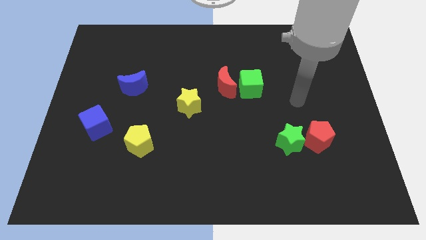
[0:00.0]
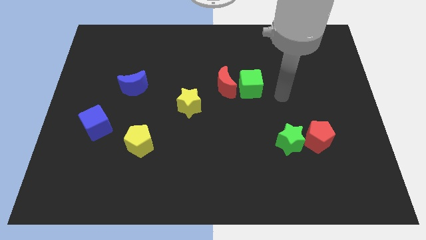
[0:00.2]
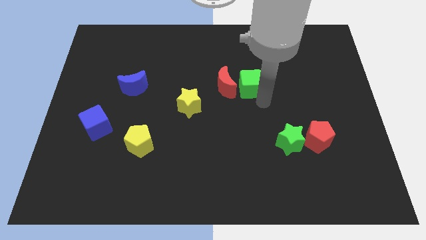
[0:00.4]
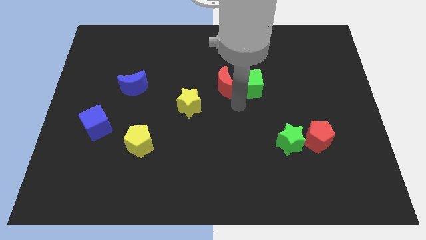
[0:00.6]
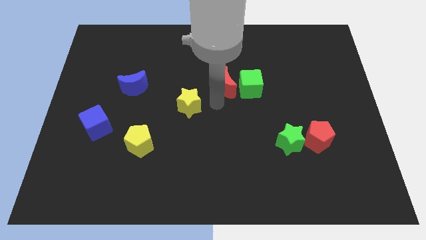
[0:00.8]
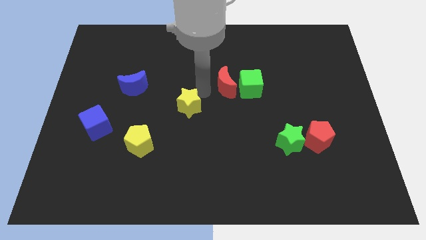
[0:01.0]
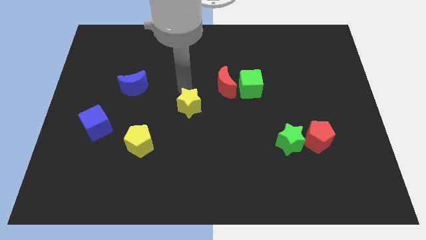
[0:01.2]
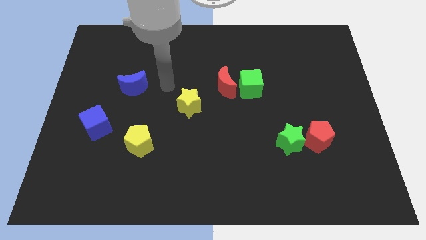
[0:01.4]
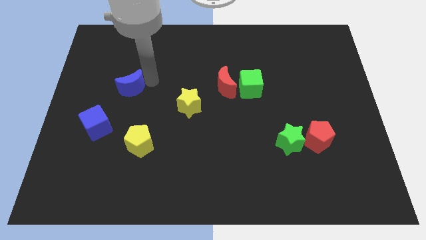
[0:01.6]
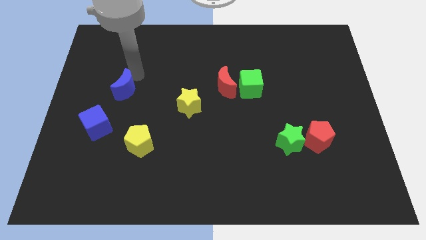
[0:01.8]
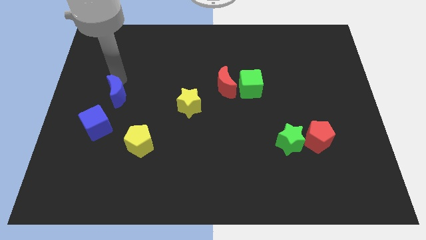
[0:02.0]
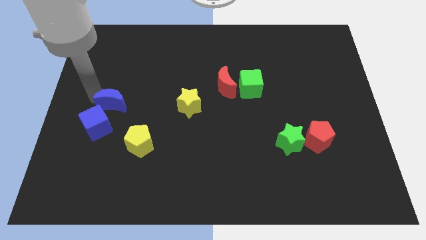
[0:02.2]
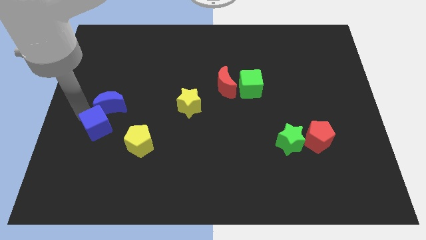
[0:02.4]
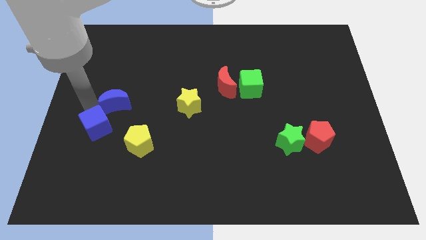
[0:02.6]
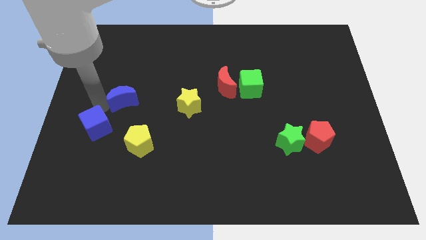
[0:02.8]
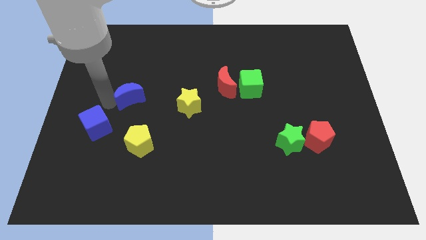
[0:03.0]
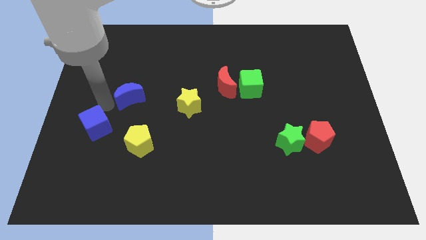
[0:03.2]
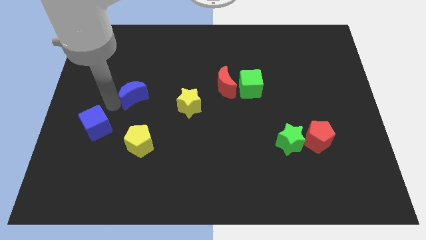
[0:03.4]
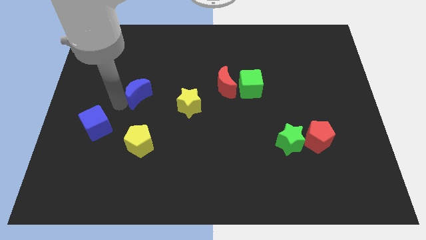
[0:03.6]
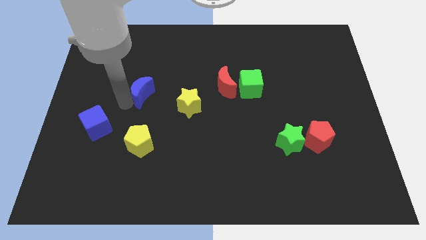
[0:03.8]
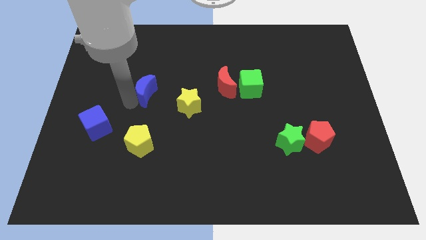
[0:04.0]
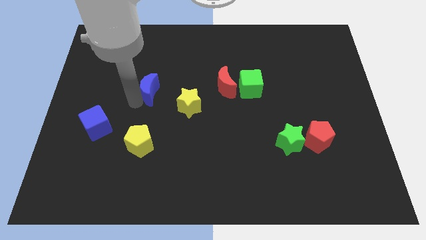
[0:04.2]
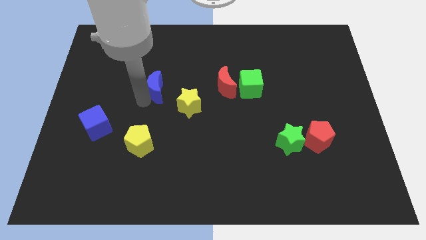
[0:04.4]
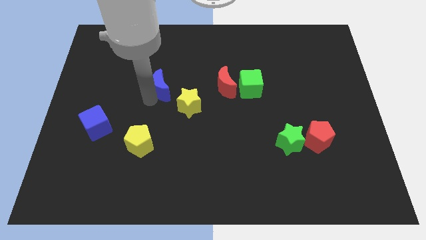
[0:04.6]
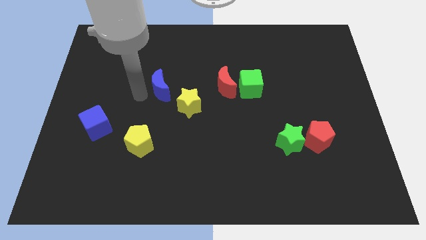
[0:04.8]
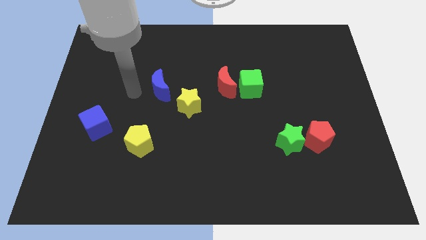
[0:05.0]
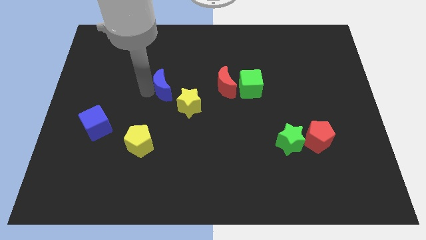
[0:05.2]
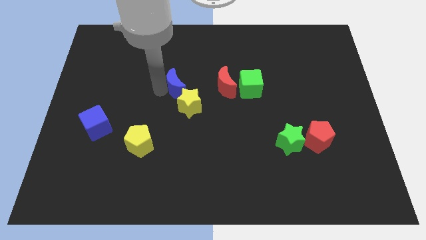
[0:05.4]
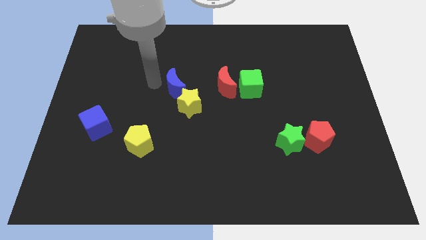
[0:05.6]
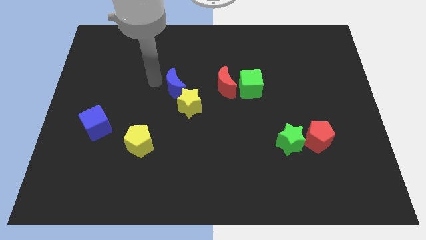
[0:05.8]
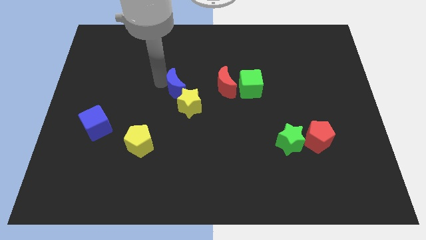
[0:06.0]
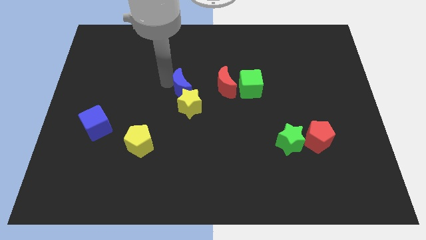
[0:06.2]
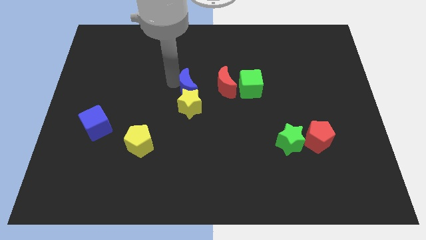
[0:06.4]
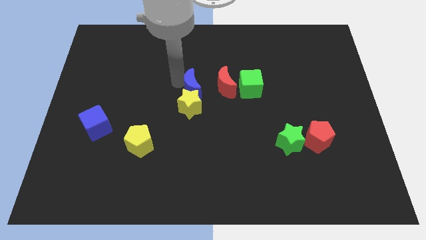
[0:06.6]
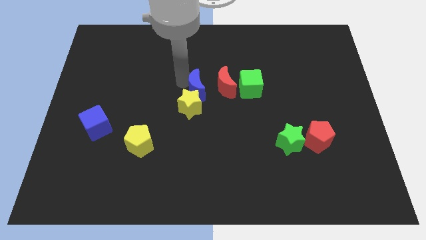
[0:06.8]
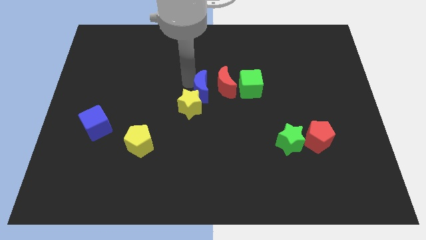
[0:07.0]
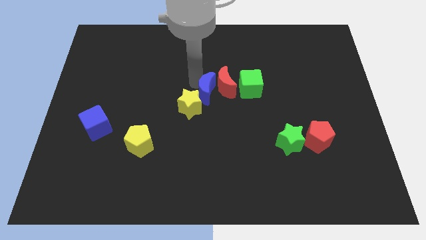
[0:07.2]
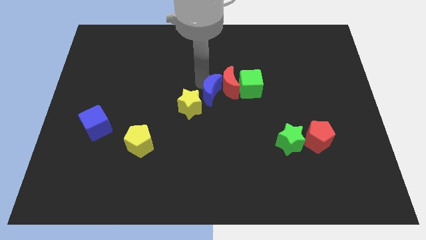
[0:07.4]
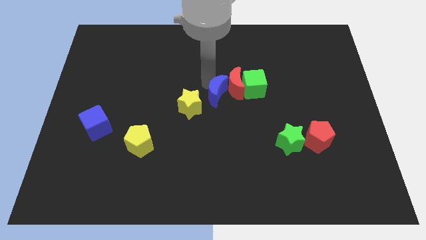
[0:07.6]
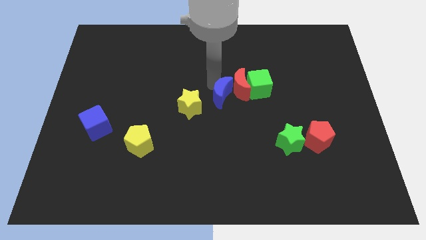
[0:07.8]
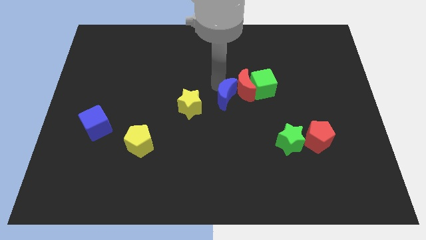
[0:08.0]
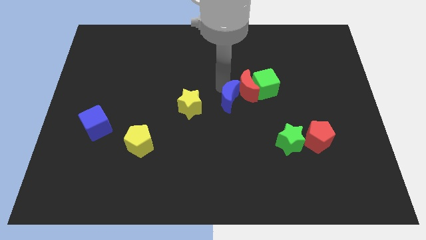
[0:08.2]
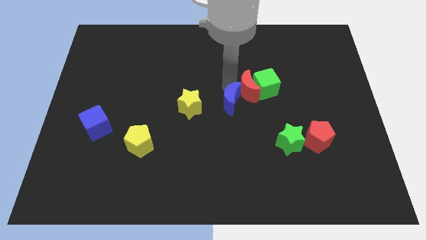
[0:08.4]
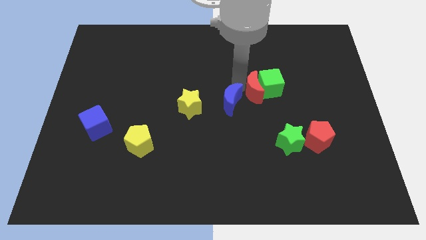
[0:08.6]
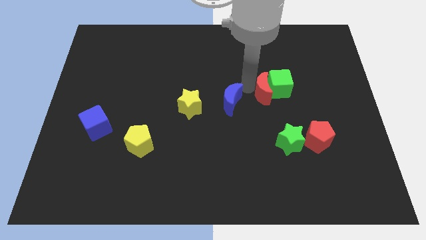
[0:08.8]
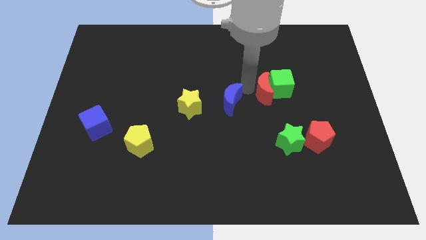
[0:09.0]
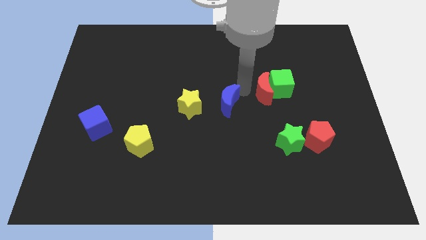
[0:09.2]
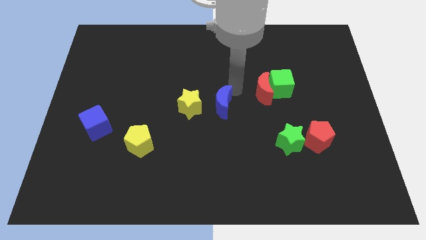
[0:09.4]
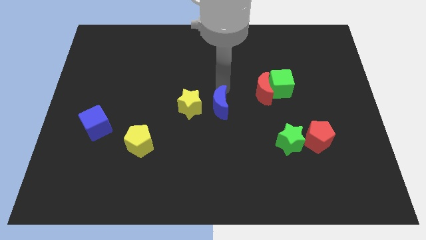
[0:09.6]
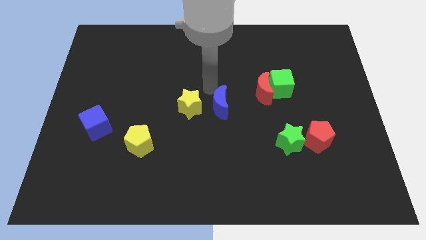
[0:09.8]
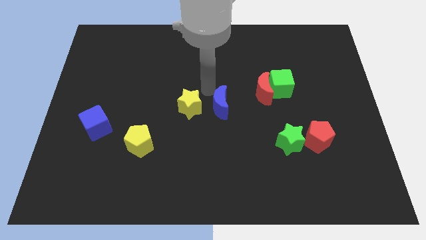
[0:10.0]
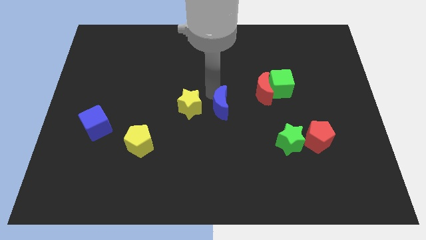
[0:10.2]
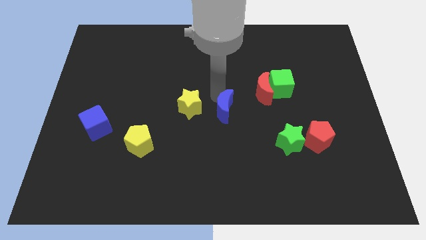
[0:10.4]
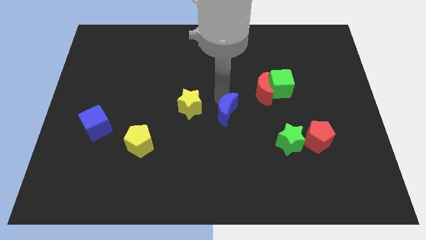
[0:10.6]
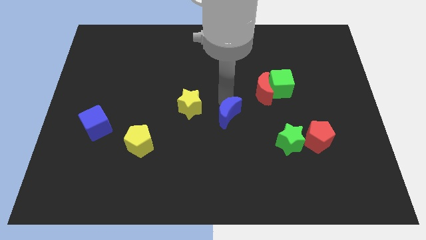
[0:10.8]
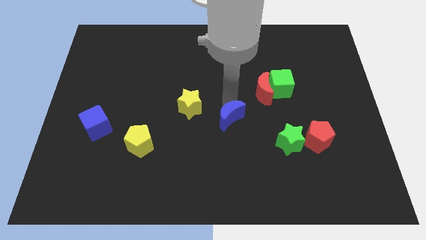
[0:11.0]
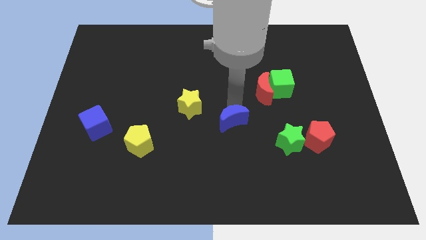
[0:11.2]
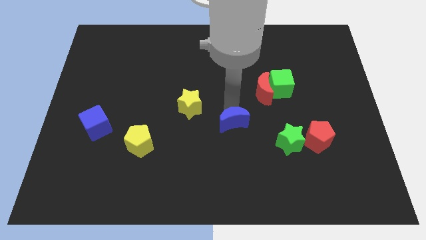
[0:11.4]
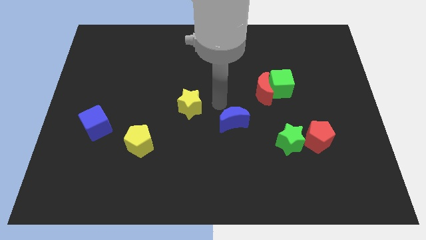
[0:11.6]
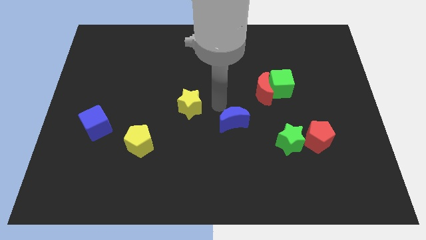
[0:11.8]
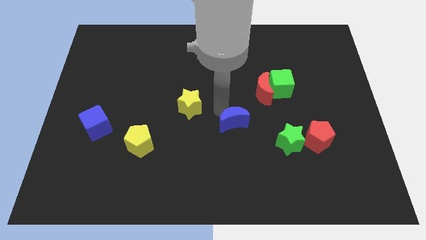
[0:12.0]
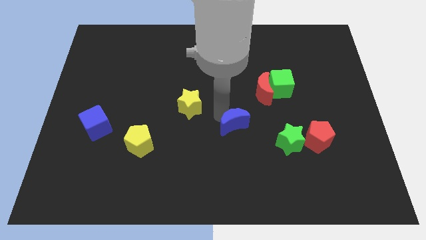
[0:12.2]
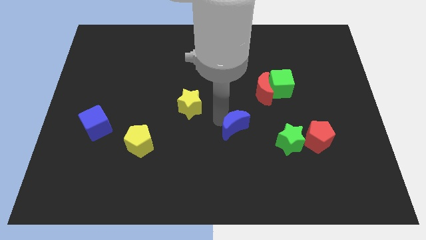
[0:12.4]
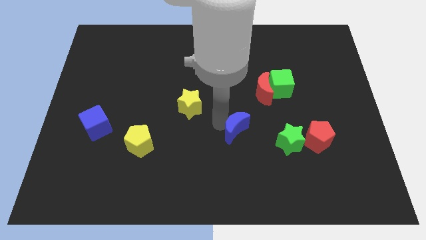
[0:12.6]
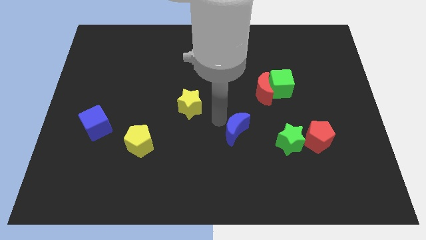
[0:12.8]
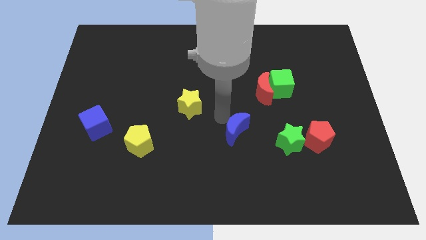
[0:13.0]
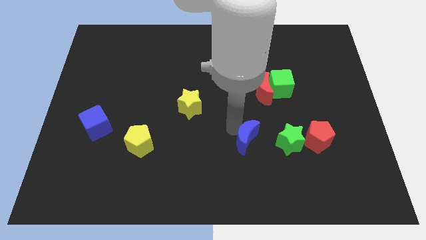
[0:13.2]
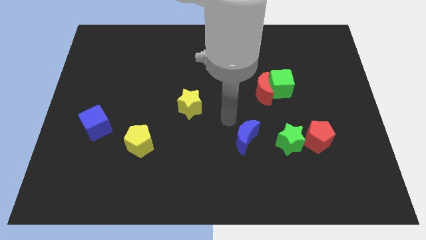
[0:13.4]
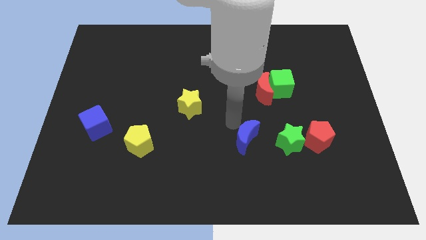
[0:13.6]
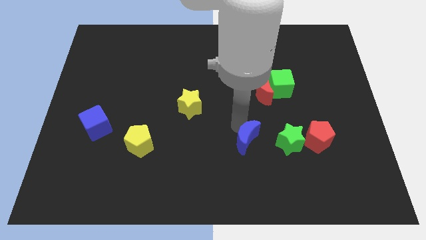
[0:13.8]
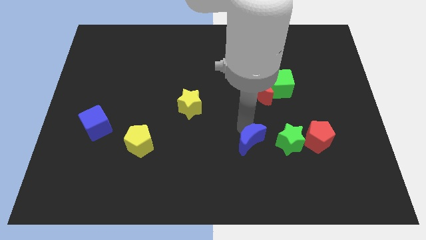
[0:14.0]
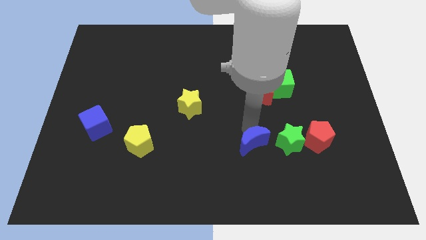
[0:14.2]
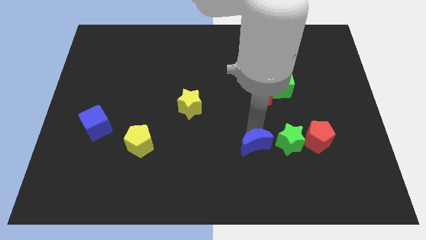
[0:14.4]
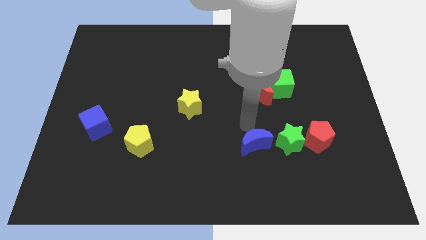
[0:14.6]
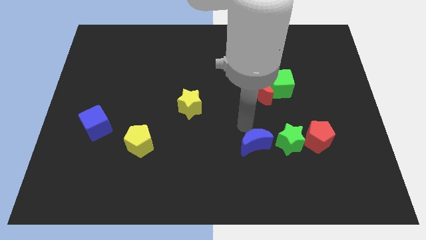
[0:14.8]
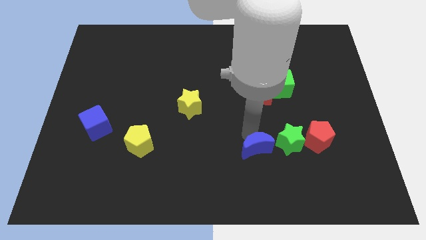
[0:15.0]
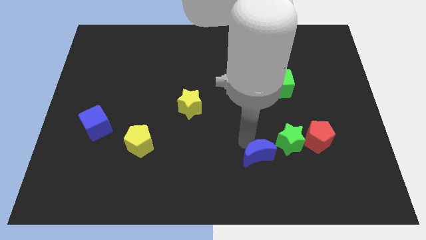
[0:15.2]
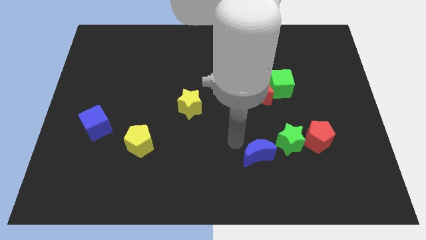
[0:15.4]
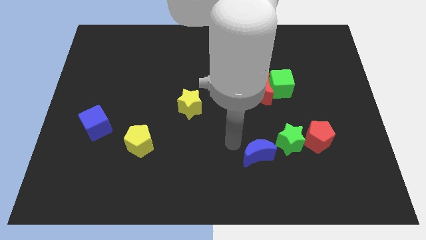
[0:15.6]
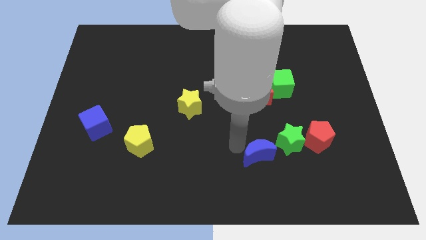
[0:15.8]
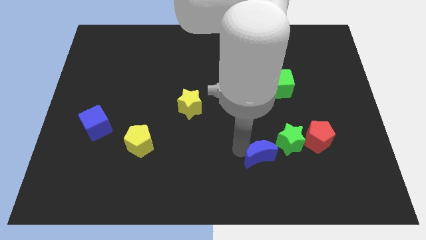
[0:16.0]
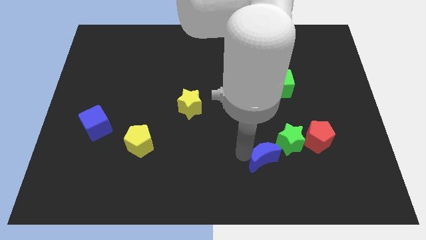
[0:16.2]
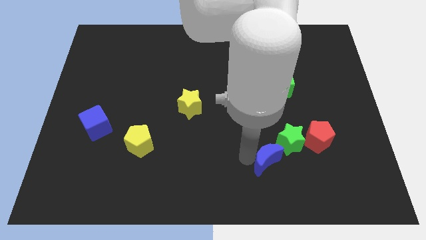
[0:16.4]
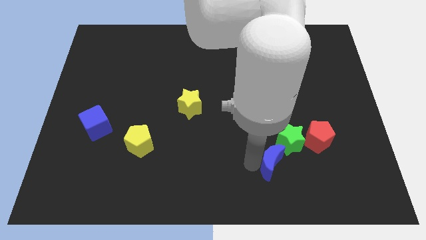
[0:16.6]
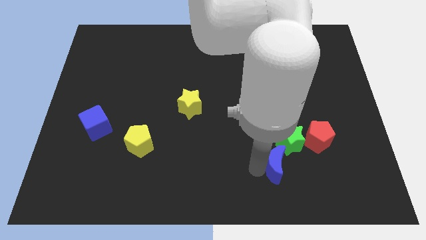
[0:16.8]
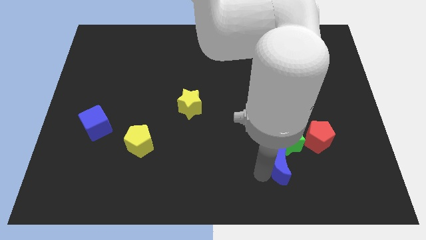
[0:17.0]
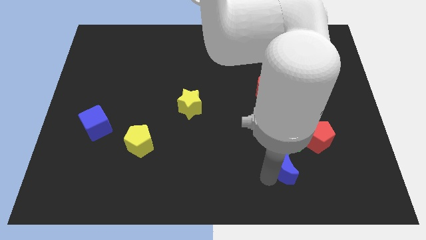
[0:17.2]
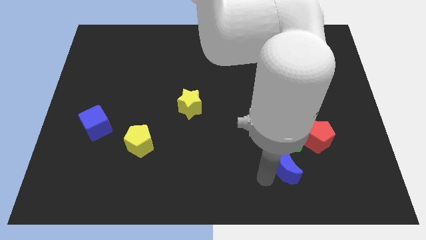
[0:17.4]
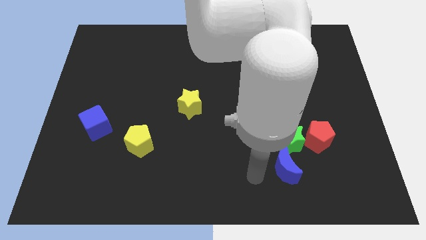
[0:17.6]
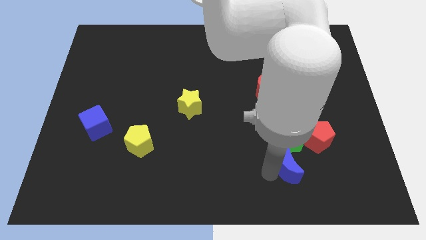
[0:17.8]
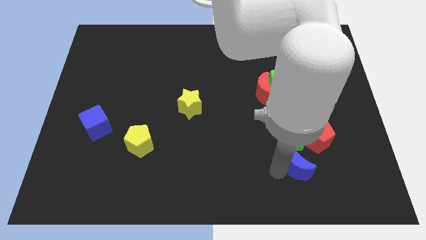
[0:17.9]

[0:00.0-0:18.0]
slide the blue moon diagonally down and to the right of the green star
